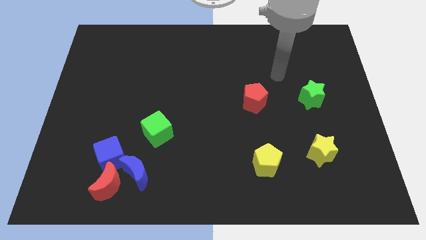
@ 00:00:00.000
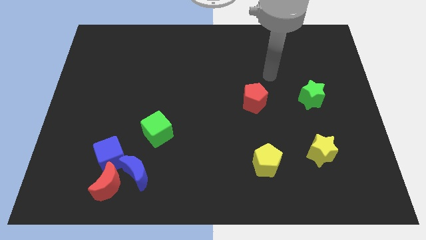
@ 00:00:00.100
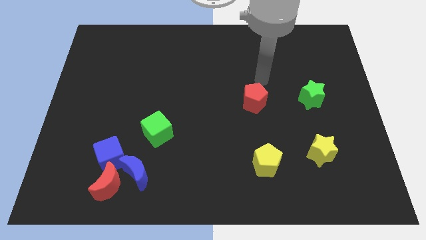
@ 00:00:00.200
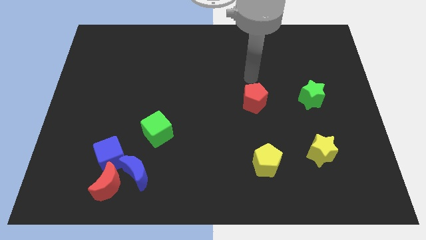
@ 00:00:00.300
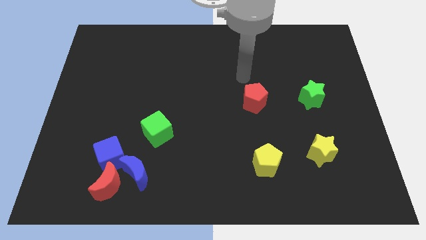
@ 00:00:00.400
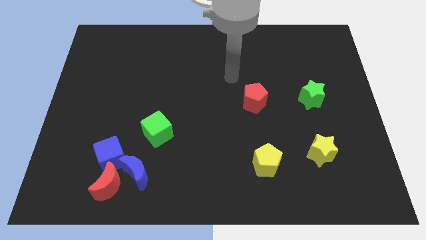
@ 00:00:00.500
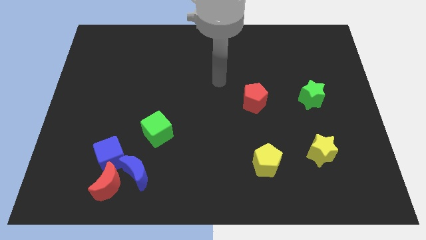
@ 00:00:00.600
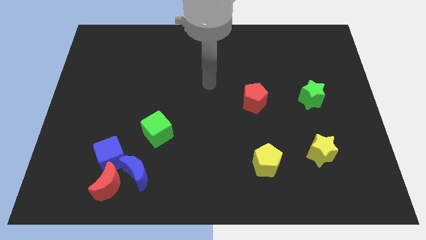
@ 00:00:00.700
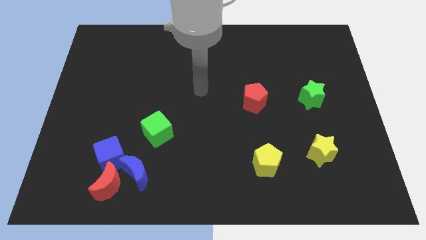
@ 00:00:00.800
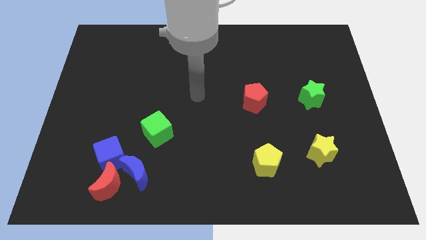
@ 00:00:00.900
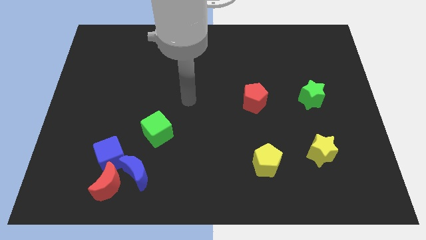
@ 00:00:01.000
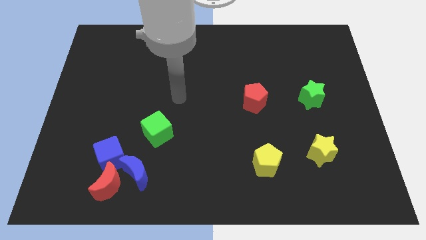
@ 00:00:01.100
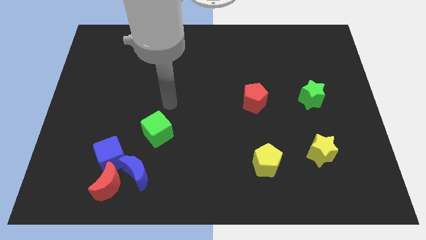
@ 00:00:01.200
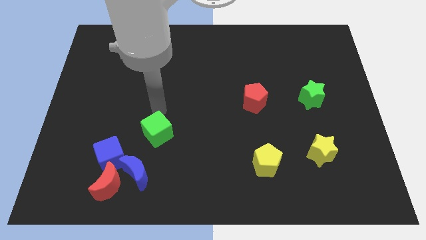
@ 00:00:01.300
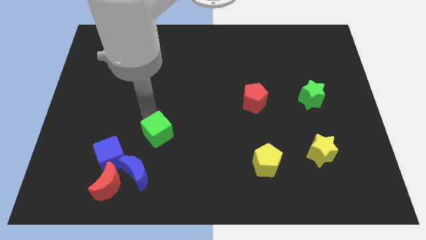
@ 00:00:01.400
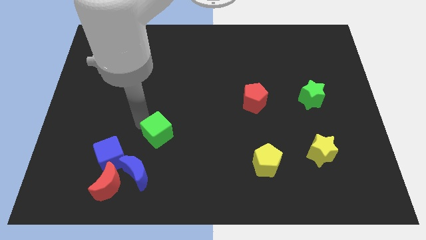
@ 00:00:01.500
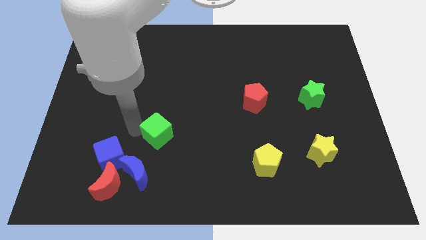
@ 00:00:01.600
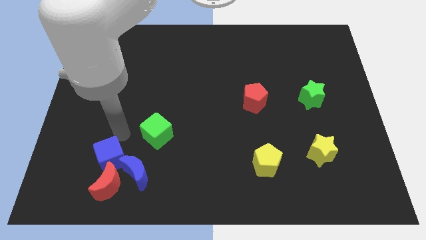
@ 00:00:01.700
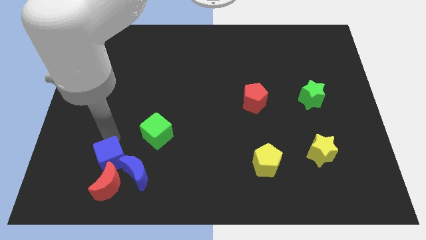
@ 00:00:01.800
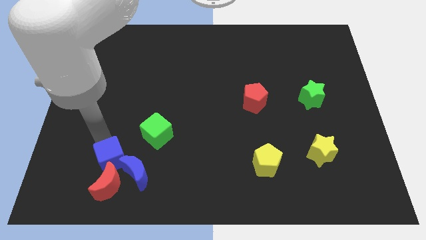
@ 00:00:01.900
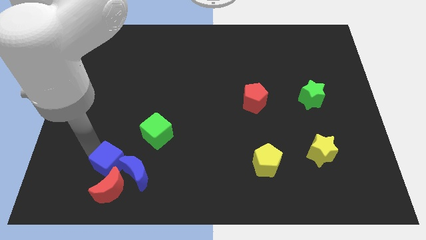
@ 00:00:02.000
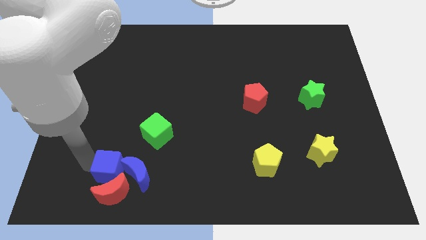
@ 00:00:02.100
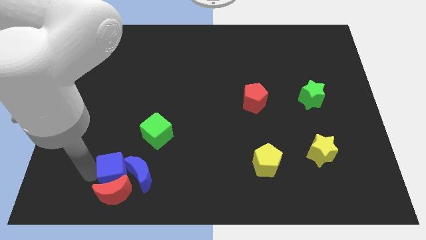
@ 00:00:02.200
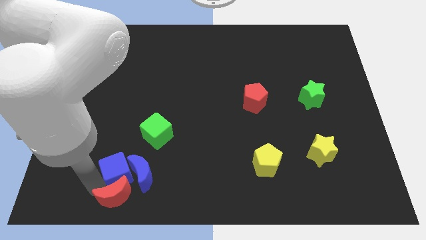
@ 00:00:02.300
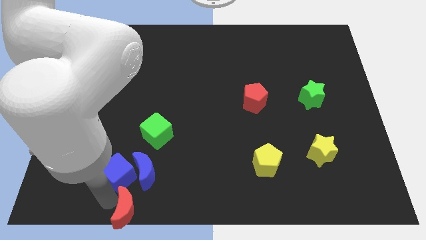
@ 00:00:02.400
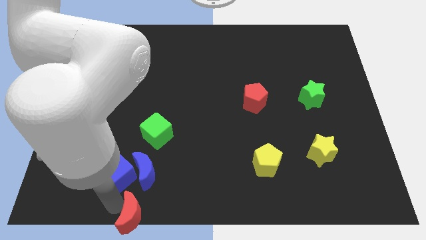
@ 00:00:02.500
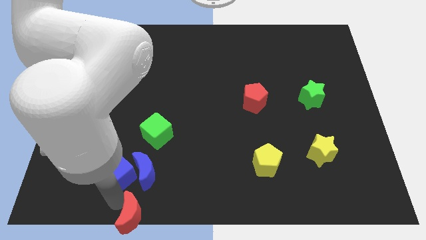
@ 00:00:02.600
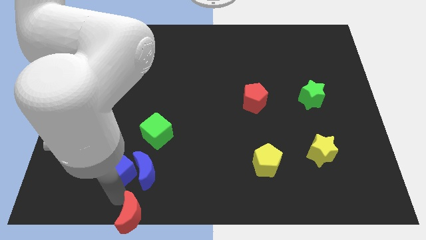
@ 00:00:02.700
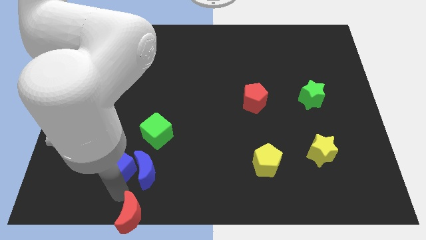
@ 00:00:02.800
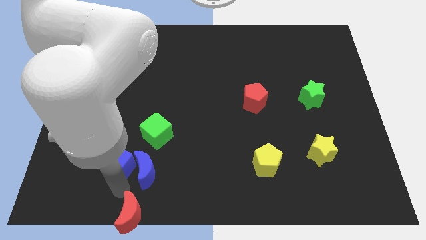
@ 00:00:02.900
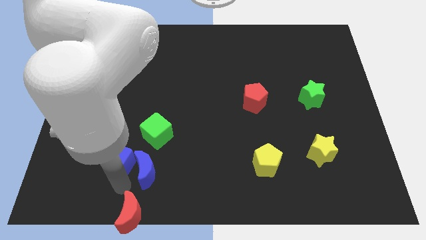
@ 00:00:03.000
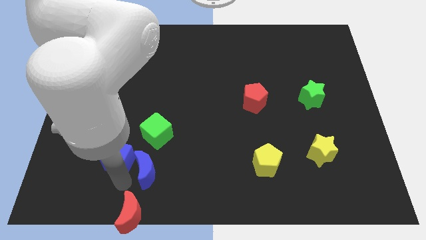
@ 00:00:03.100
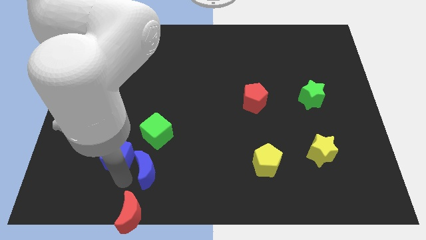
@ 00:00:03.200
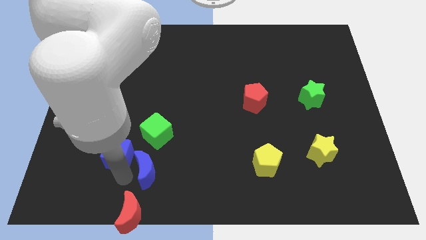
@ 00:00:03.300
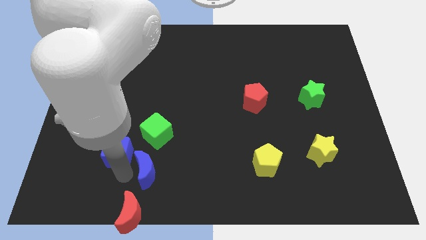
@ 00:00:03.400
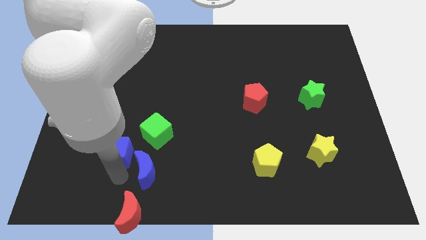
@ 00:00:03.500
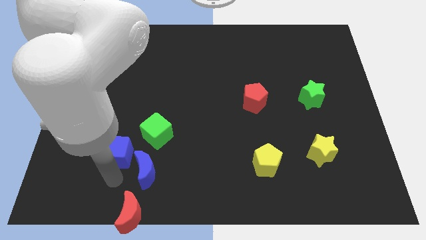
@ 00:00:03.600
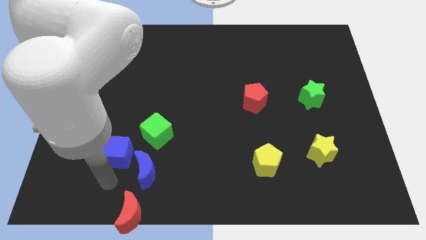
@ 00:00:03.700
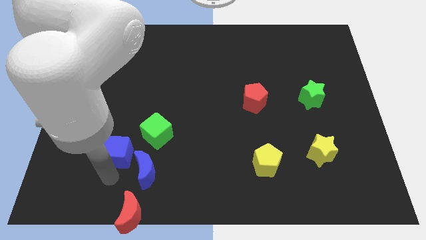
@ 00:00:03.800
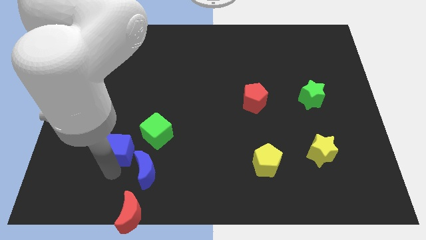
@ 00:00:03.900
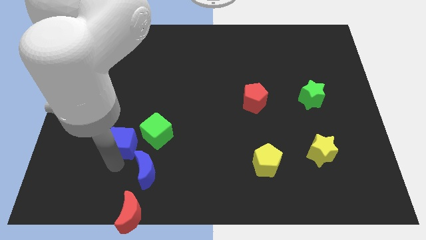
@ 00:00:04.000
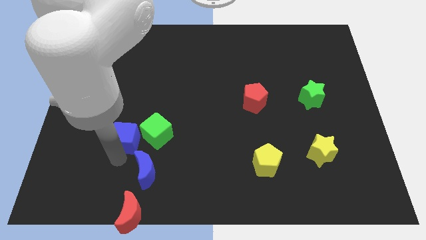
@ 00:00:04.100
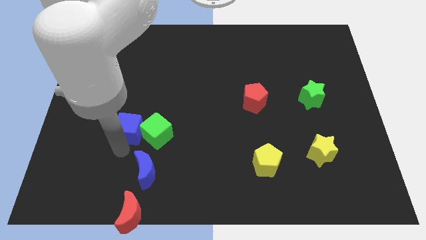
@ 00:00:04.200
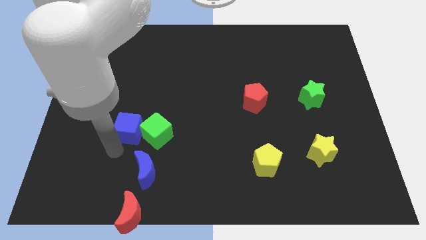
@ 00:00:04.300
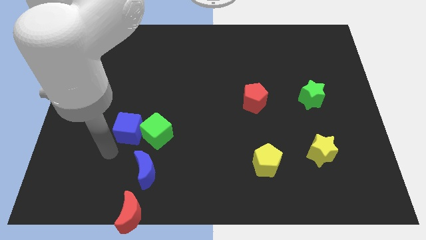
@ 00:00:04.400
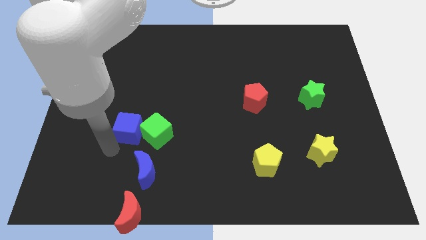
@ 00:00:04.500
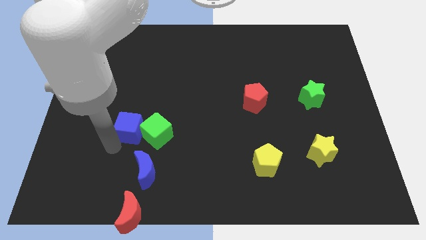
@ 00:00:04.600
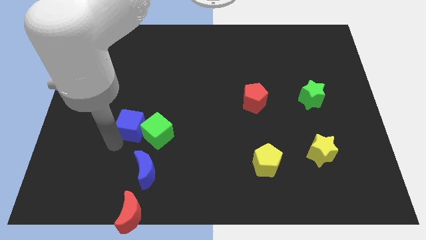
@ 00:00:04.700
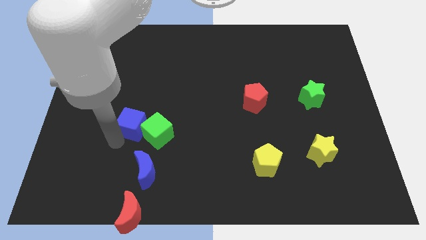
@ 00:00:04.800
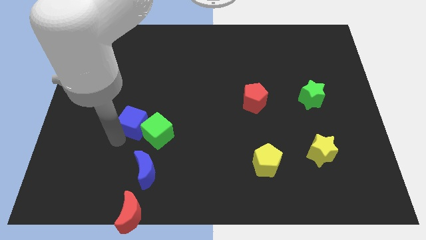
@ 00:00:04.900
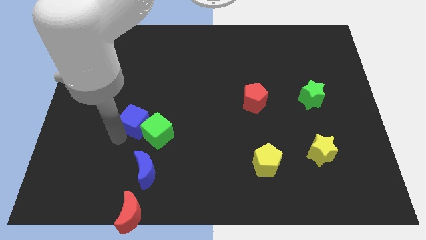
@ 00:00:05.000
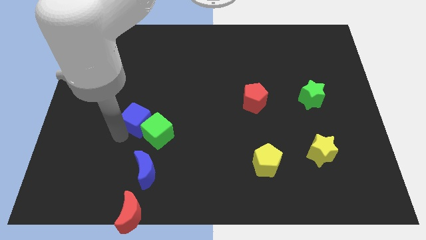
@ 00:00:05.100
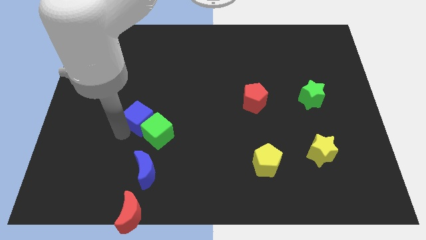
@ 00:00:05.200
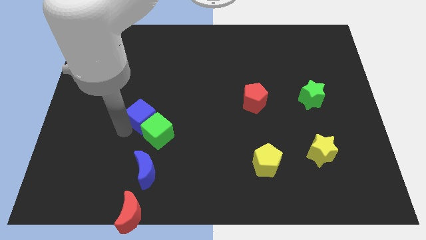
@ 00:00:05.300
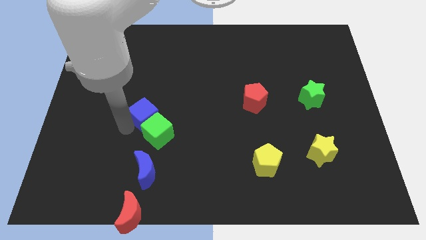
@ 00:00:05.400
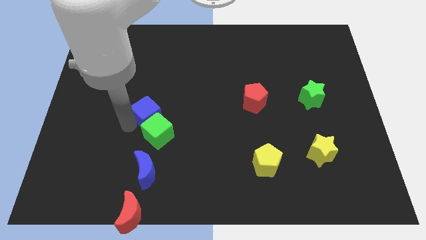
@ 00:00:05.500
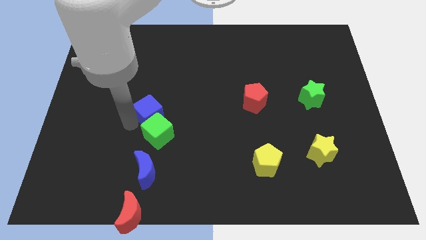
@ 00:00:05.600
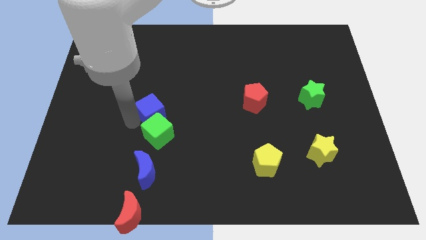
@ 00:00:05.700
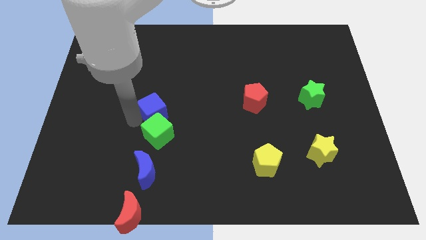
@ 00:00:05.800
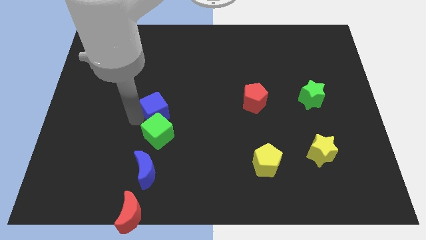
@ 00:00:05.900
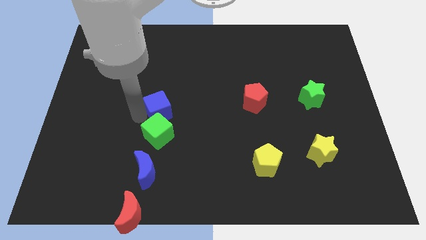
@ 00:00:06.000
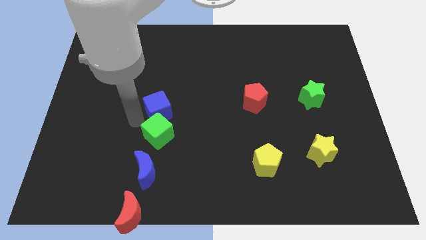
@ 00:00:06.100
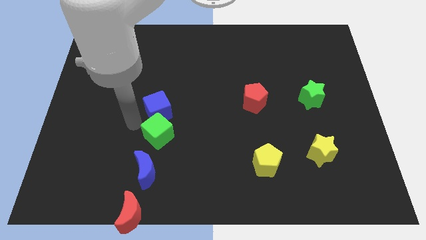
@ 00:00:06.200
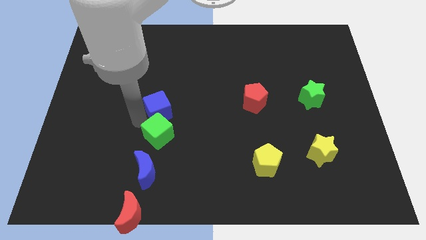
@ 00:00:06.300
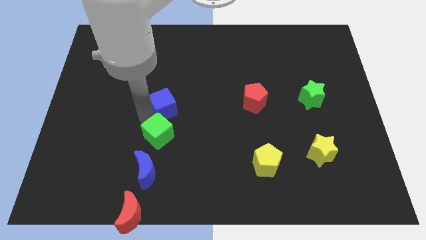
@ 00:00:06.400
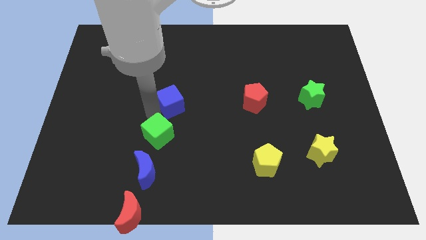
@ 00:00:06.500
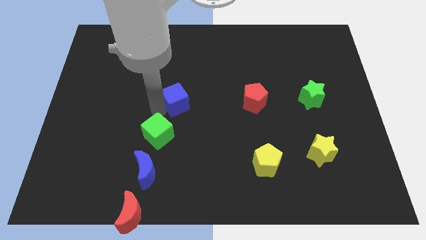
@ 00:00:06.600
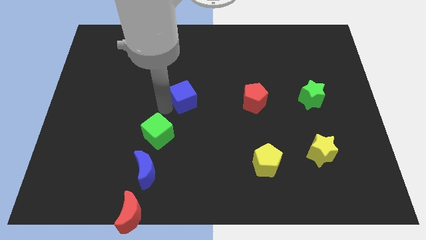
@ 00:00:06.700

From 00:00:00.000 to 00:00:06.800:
slide the blue cube upwards and then right

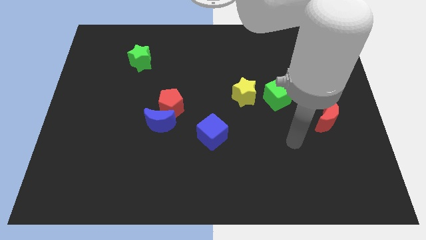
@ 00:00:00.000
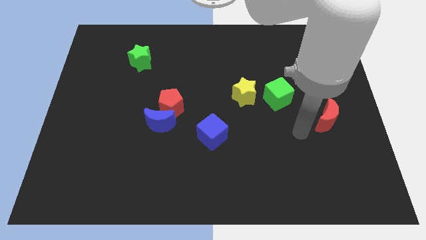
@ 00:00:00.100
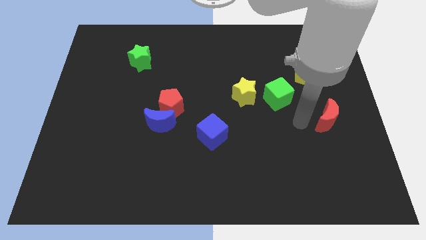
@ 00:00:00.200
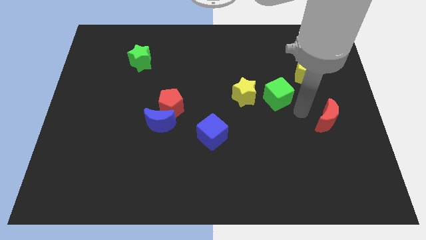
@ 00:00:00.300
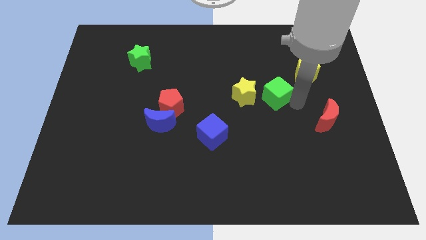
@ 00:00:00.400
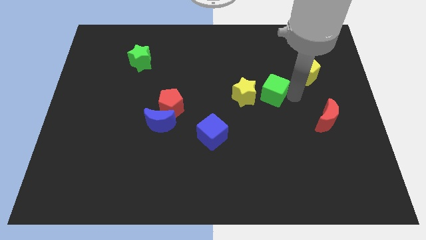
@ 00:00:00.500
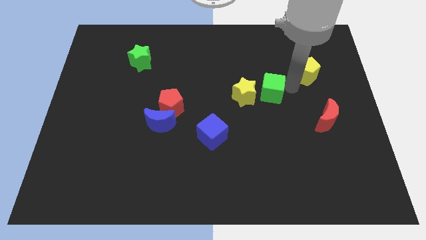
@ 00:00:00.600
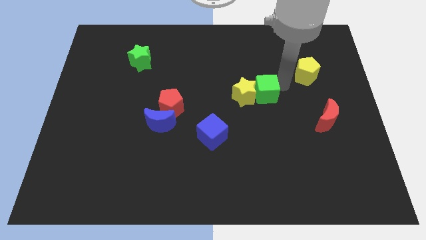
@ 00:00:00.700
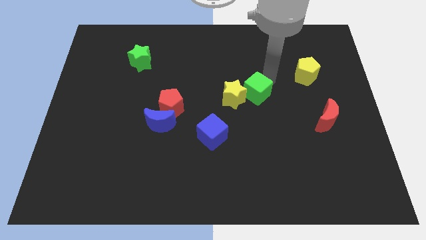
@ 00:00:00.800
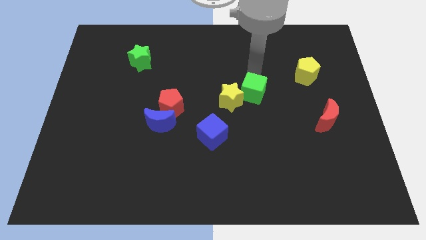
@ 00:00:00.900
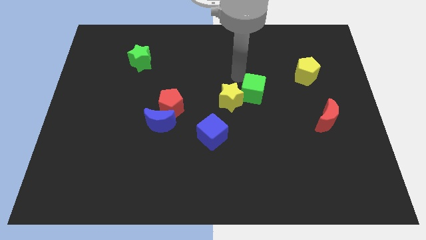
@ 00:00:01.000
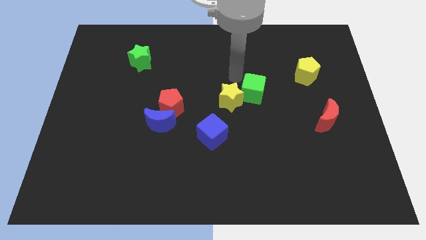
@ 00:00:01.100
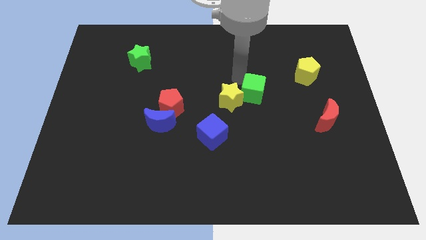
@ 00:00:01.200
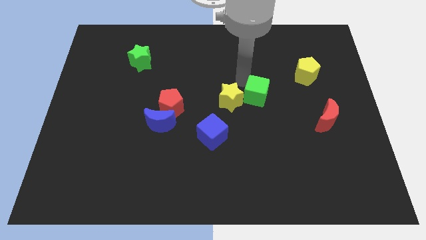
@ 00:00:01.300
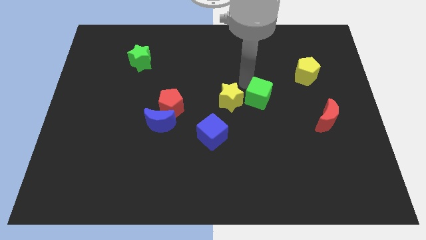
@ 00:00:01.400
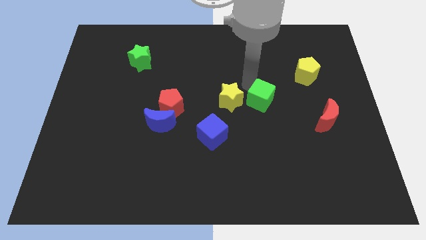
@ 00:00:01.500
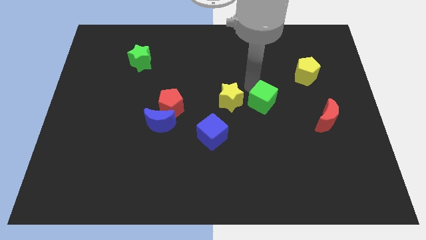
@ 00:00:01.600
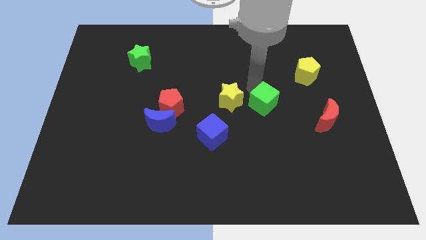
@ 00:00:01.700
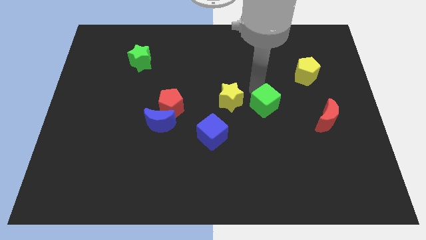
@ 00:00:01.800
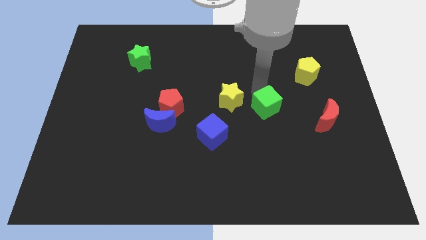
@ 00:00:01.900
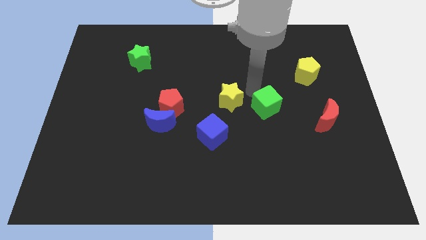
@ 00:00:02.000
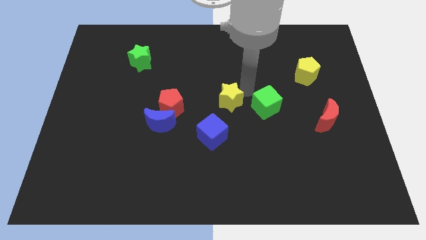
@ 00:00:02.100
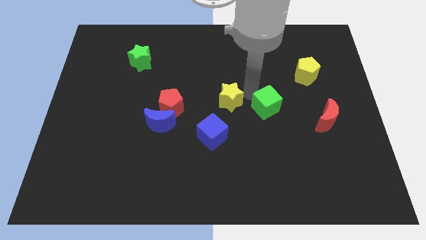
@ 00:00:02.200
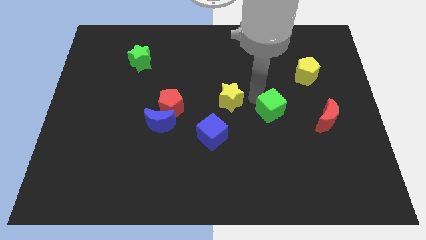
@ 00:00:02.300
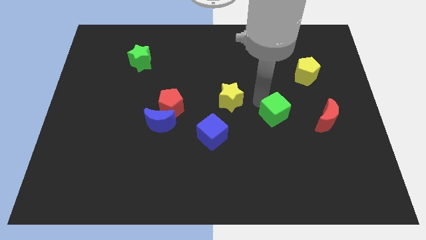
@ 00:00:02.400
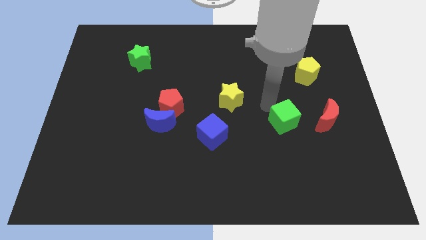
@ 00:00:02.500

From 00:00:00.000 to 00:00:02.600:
slightly slide the green cube down
